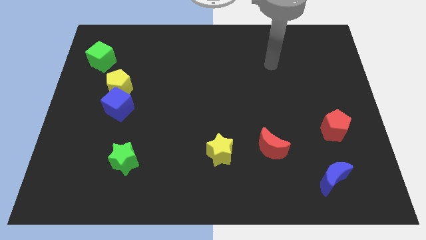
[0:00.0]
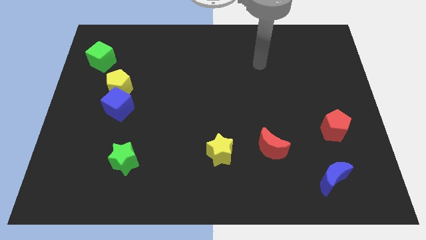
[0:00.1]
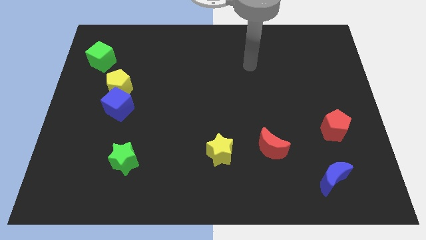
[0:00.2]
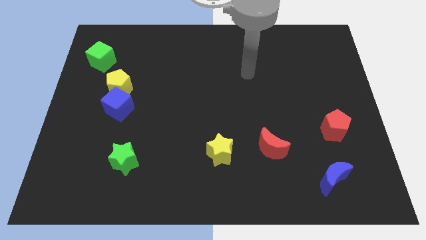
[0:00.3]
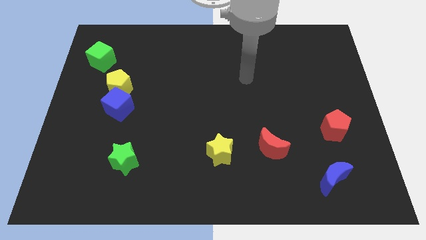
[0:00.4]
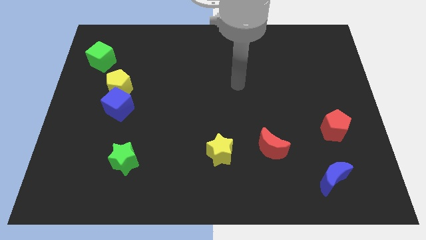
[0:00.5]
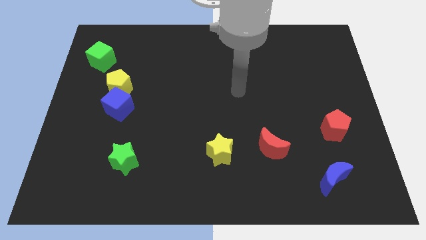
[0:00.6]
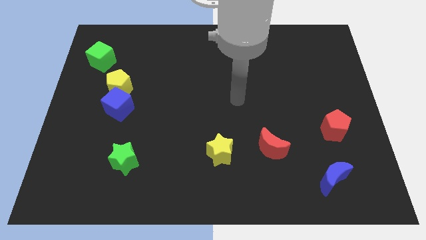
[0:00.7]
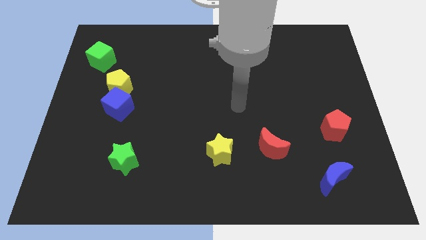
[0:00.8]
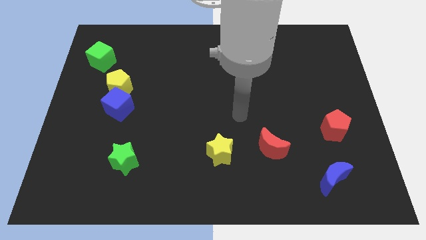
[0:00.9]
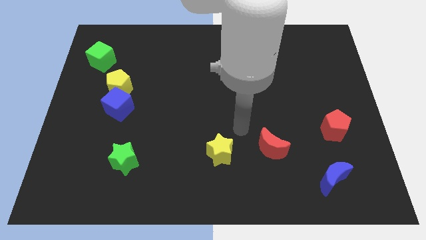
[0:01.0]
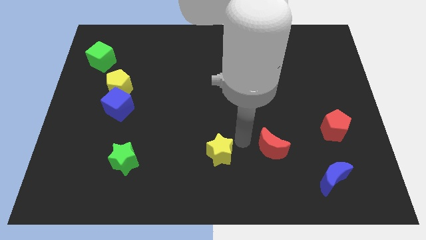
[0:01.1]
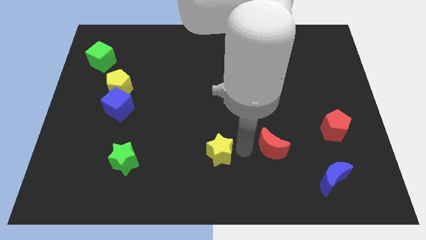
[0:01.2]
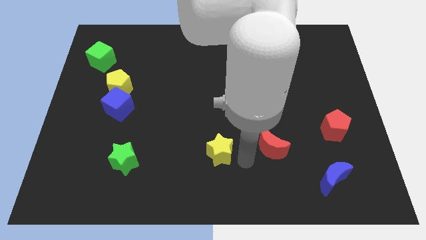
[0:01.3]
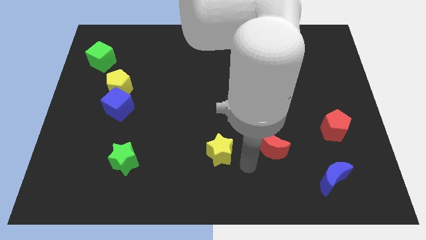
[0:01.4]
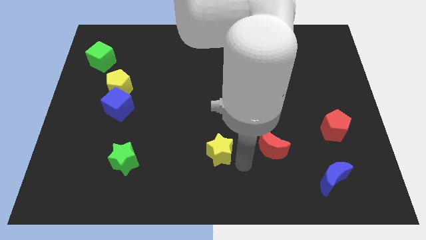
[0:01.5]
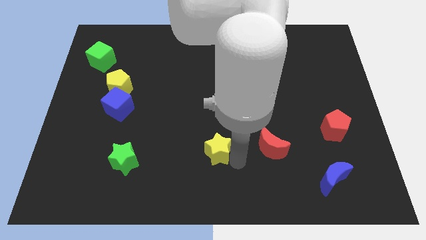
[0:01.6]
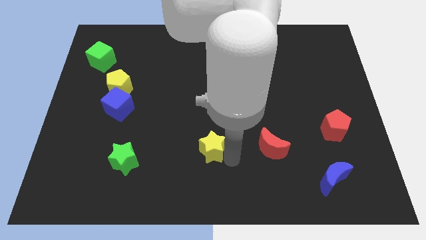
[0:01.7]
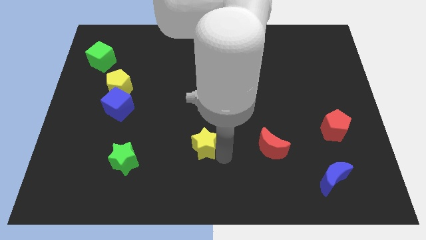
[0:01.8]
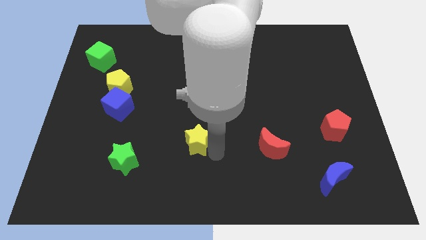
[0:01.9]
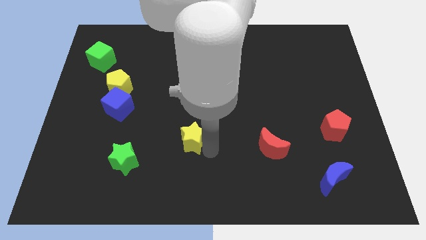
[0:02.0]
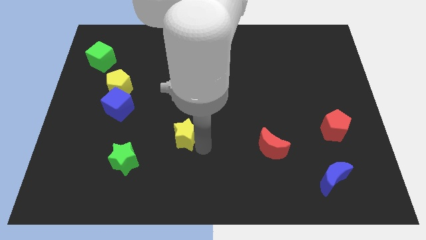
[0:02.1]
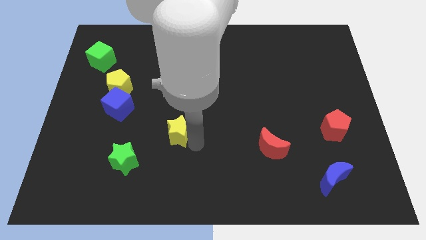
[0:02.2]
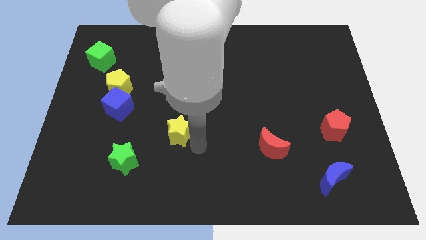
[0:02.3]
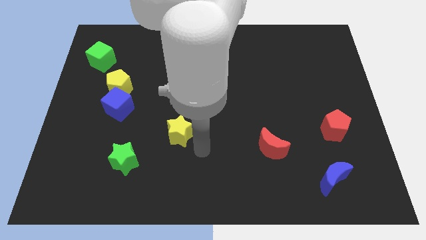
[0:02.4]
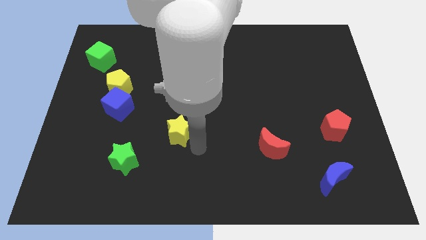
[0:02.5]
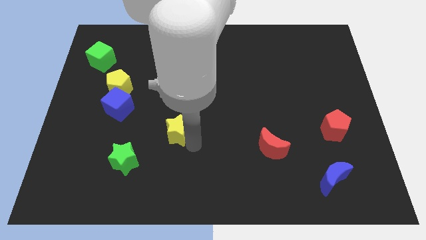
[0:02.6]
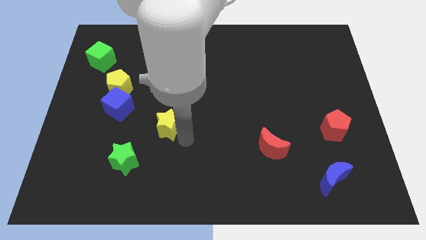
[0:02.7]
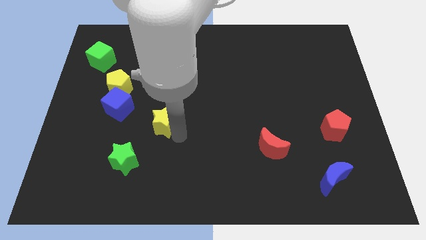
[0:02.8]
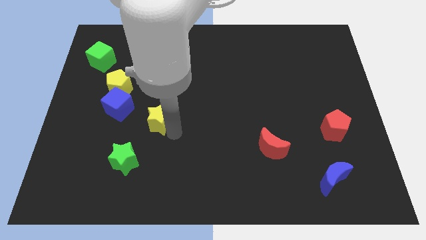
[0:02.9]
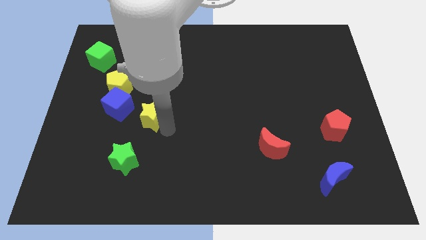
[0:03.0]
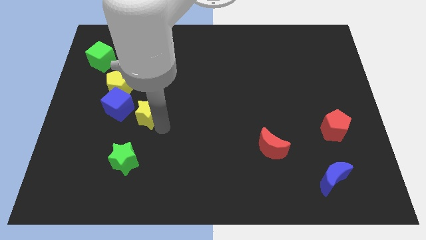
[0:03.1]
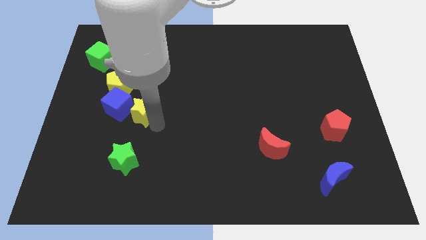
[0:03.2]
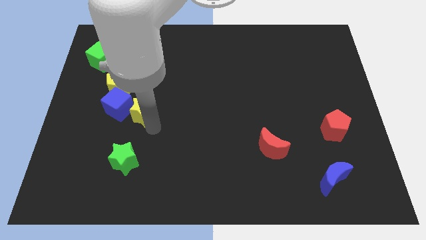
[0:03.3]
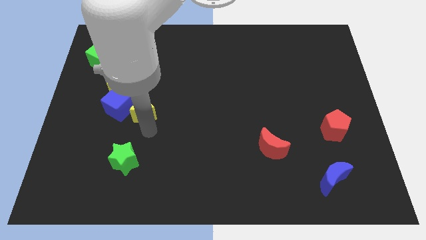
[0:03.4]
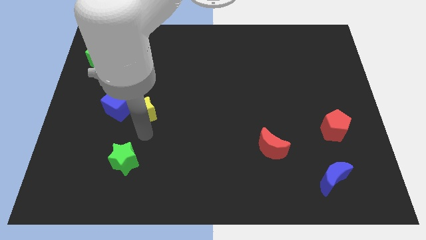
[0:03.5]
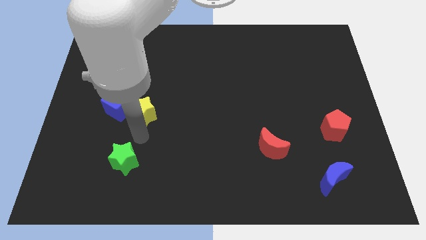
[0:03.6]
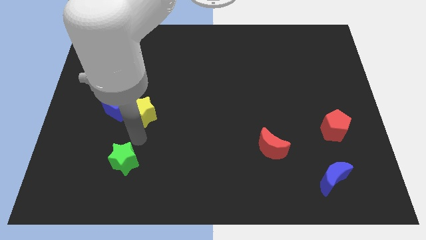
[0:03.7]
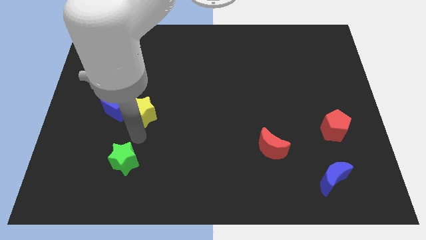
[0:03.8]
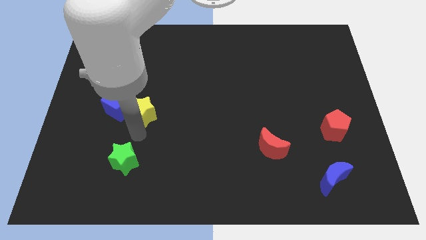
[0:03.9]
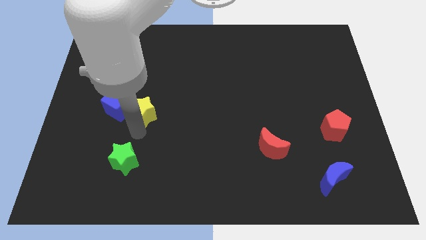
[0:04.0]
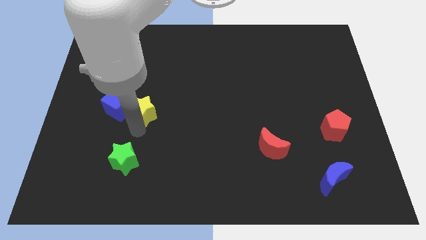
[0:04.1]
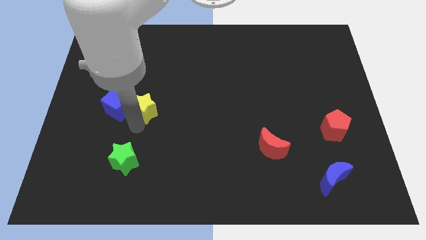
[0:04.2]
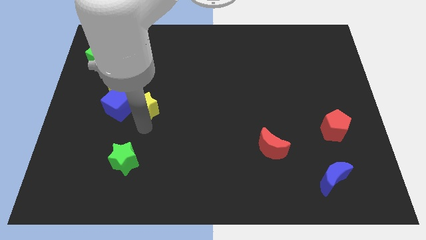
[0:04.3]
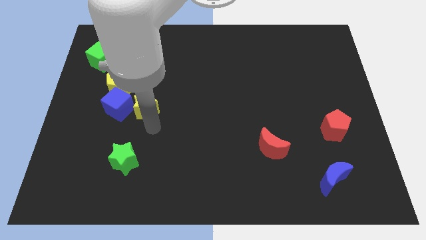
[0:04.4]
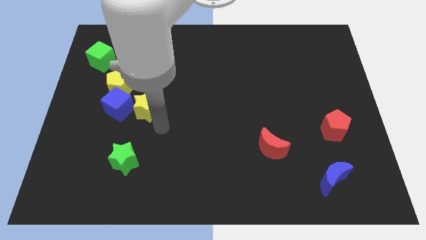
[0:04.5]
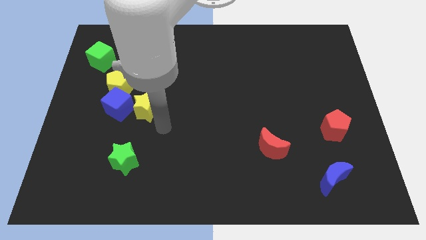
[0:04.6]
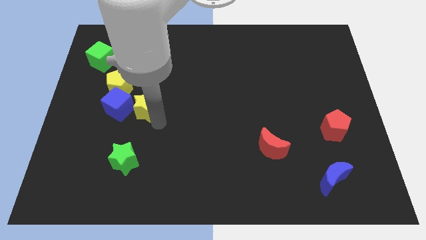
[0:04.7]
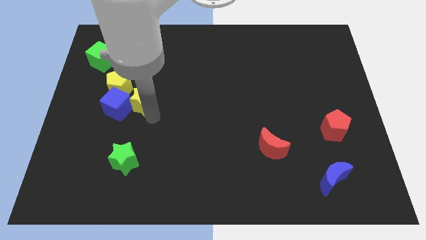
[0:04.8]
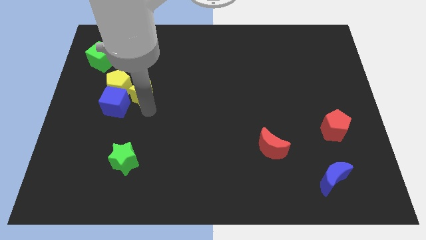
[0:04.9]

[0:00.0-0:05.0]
move the yellow star to the yellow pentagon

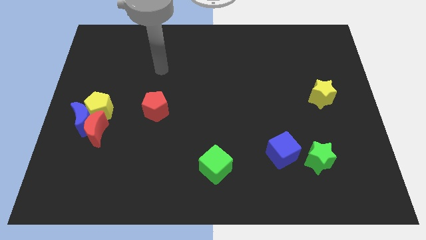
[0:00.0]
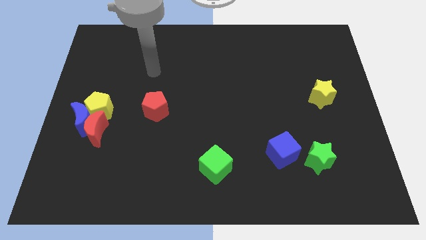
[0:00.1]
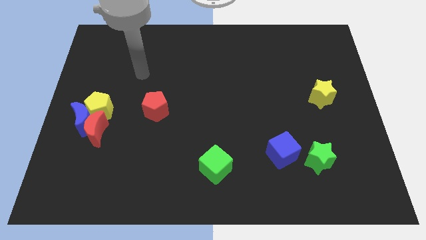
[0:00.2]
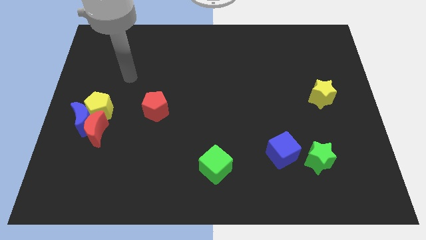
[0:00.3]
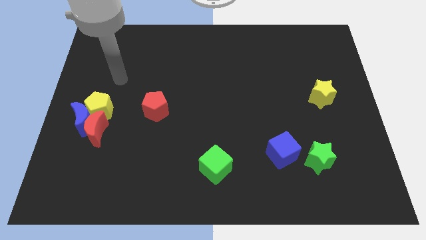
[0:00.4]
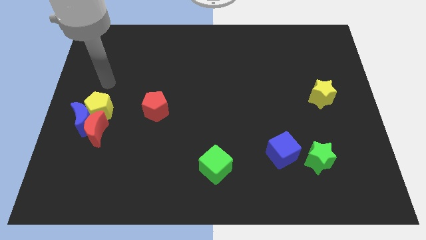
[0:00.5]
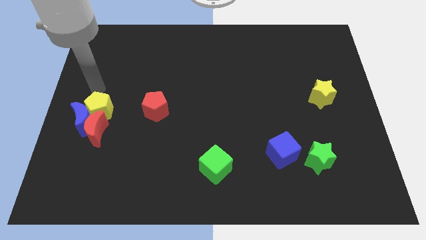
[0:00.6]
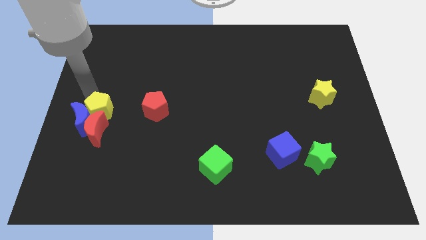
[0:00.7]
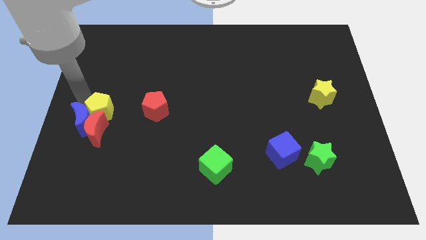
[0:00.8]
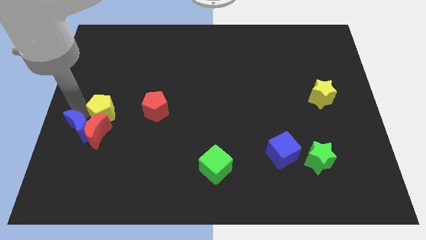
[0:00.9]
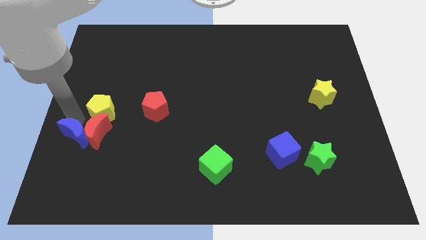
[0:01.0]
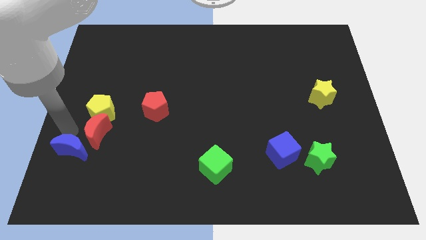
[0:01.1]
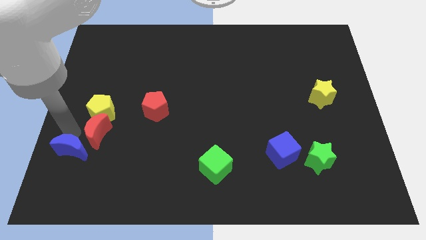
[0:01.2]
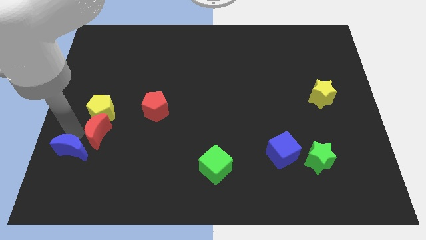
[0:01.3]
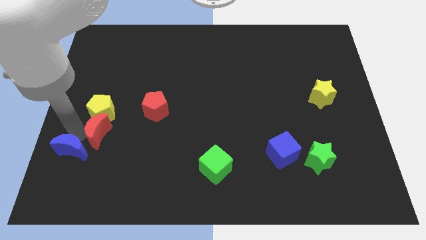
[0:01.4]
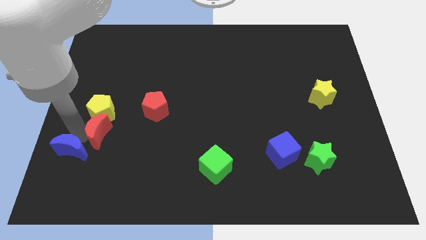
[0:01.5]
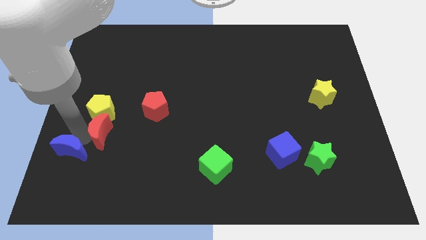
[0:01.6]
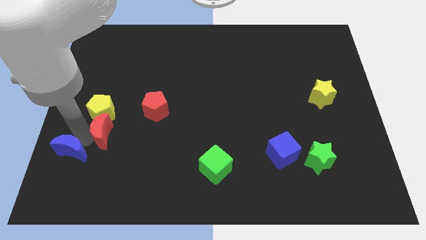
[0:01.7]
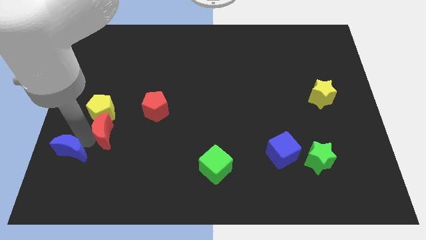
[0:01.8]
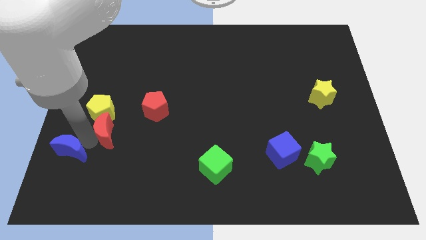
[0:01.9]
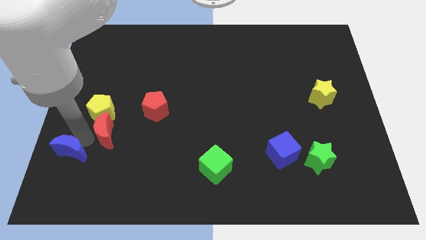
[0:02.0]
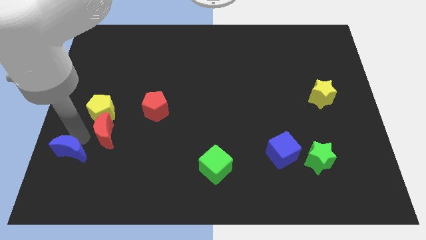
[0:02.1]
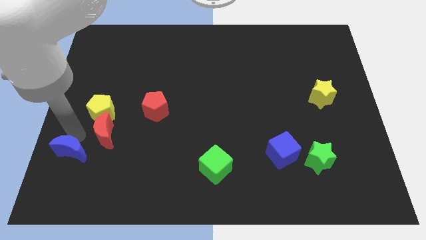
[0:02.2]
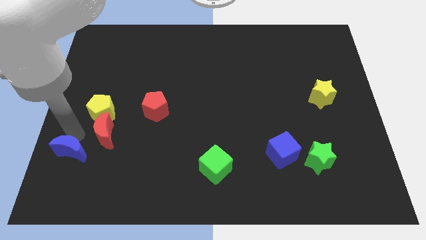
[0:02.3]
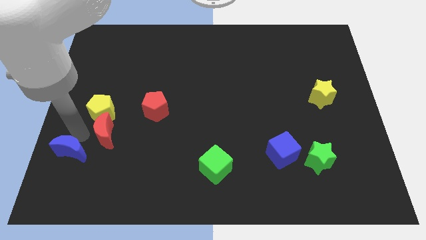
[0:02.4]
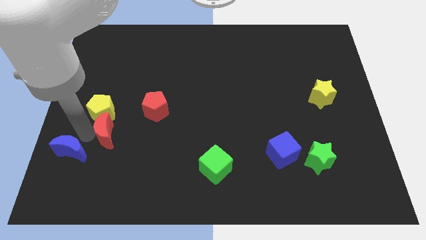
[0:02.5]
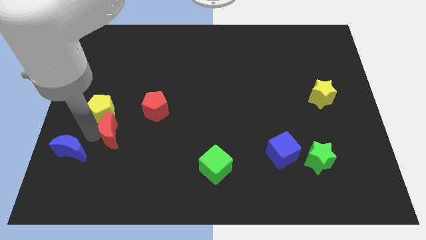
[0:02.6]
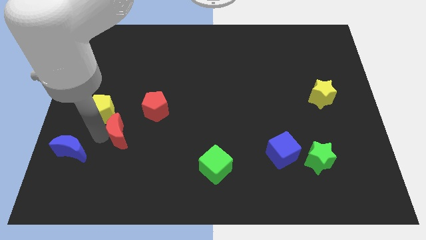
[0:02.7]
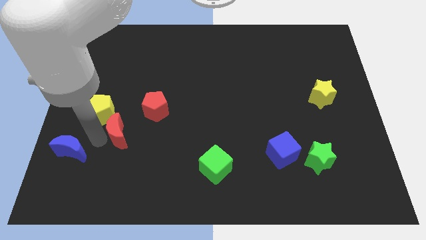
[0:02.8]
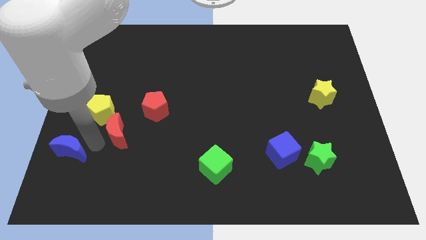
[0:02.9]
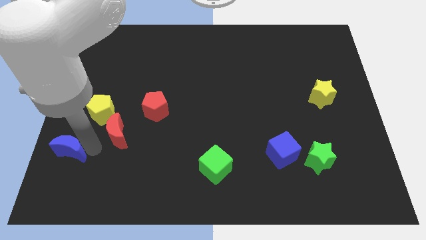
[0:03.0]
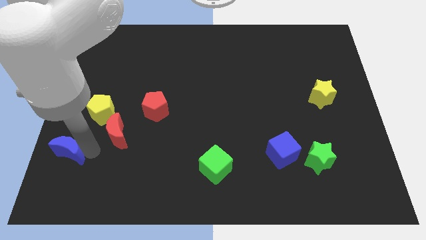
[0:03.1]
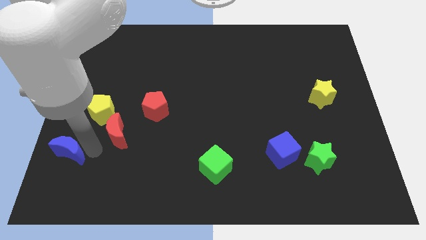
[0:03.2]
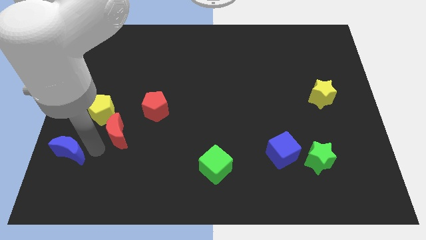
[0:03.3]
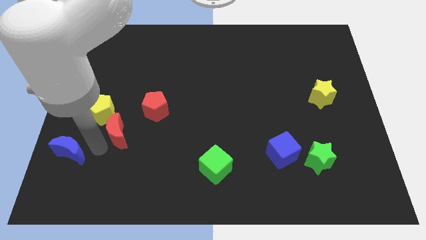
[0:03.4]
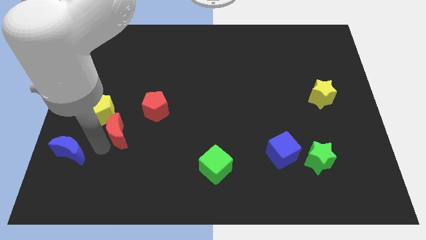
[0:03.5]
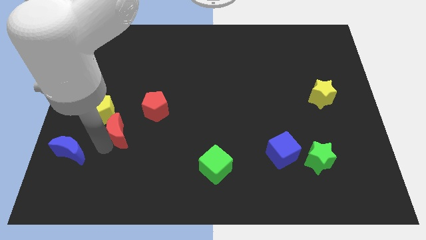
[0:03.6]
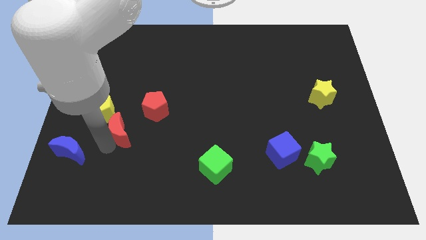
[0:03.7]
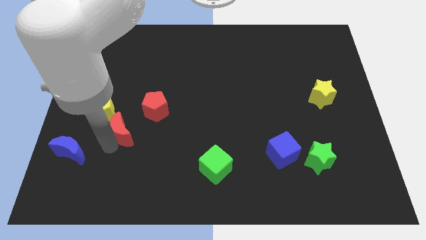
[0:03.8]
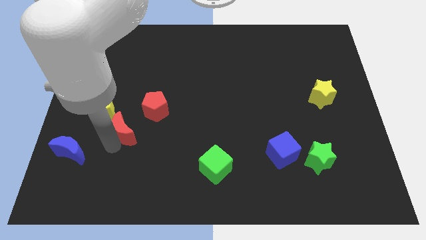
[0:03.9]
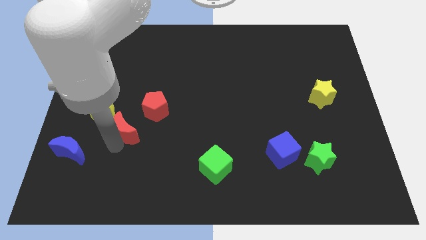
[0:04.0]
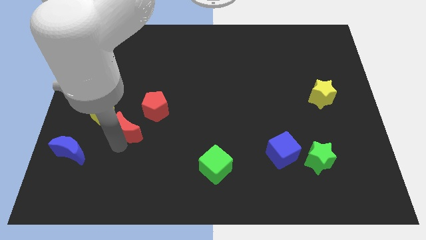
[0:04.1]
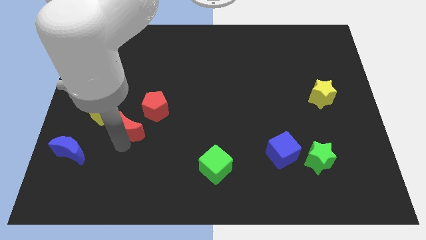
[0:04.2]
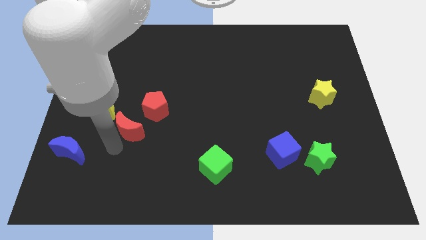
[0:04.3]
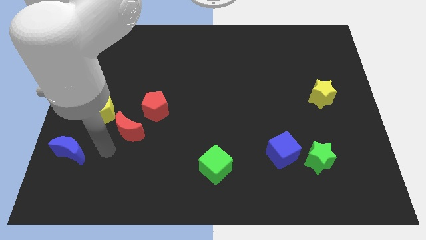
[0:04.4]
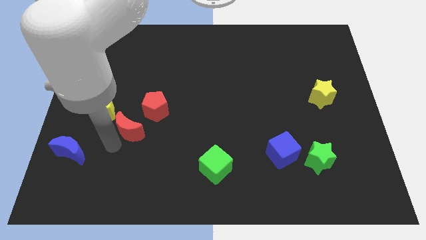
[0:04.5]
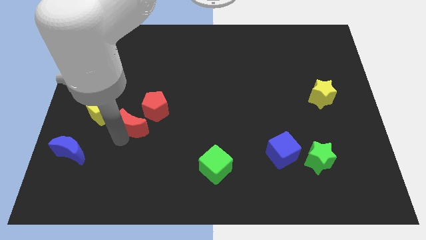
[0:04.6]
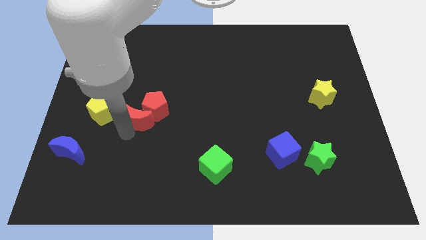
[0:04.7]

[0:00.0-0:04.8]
slide the red moon to the red pentagon
